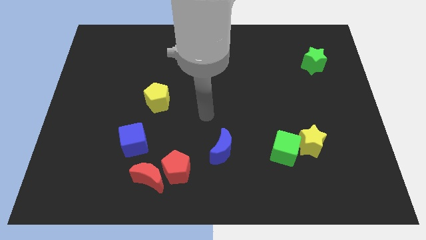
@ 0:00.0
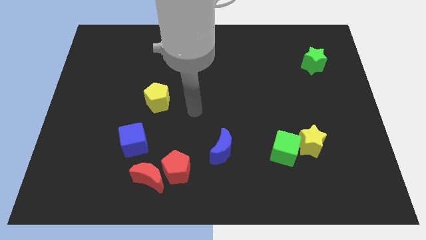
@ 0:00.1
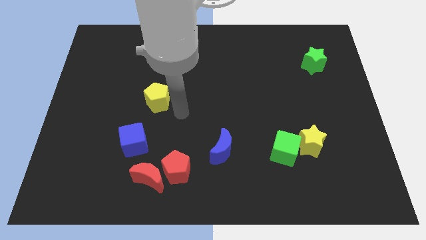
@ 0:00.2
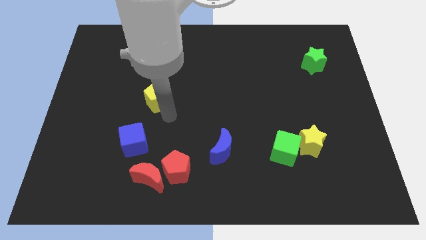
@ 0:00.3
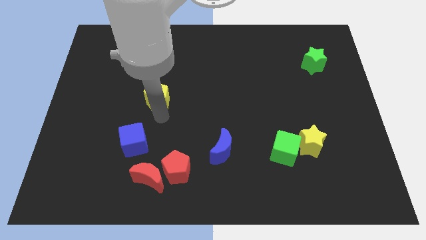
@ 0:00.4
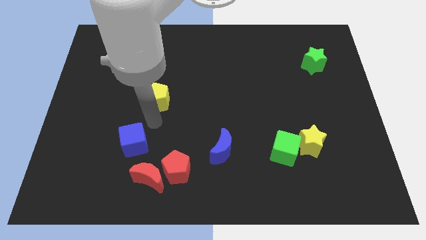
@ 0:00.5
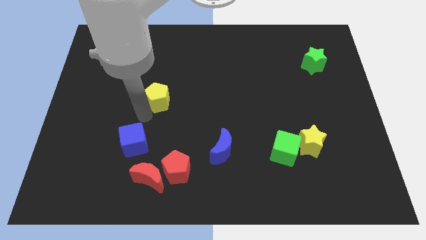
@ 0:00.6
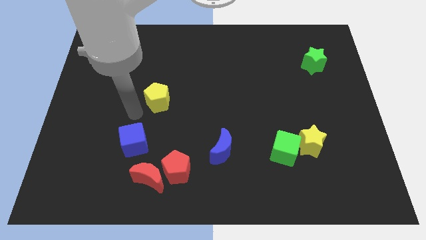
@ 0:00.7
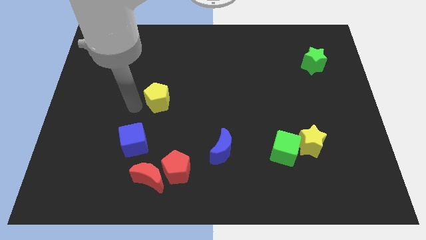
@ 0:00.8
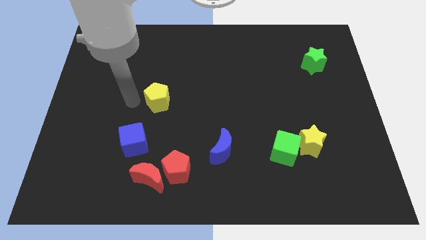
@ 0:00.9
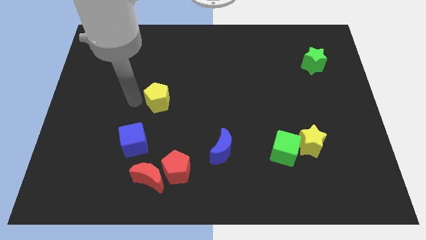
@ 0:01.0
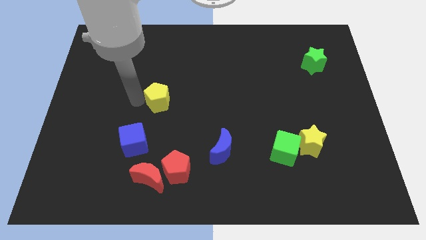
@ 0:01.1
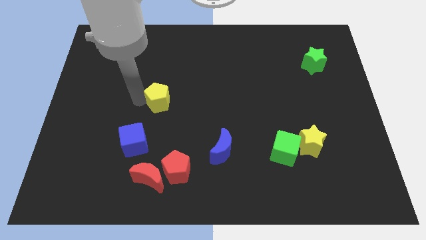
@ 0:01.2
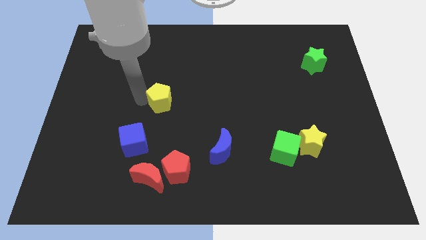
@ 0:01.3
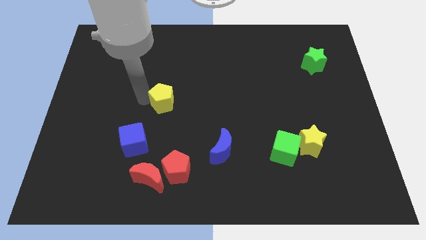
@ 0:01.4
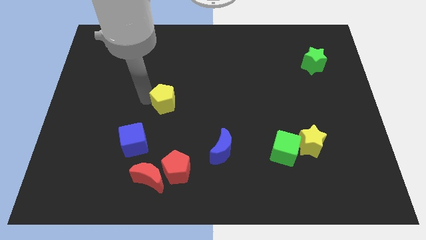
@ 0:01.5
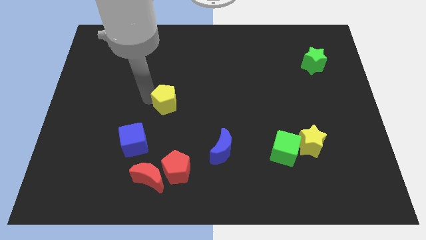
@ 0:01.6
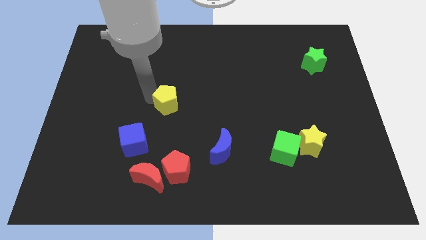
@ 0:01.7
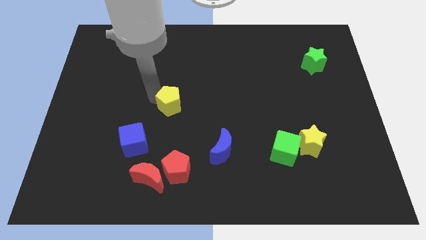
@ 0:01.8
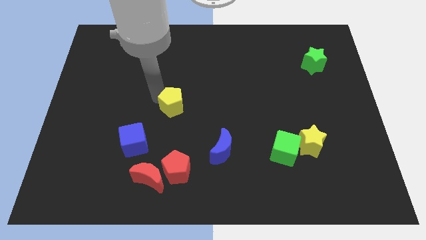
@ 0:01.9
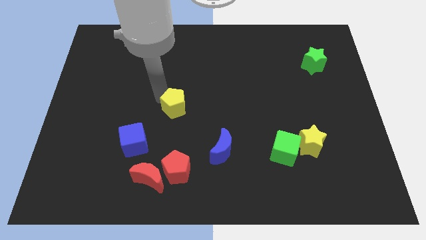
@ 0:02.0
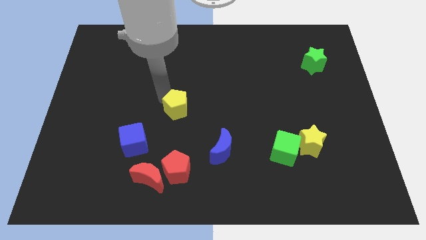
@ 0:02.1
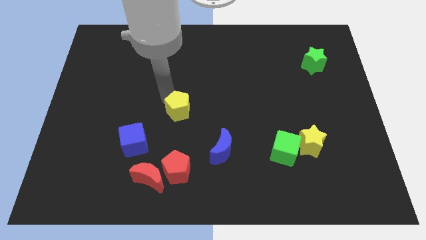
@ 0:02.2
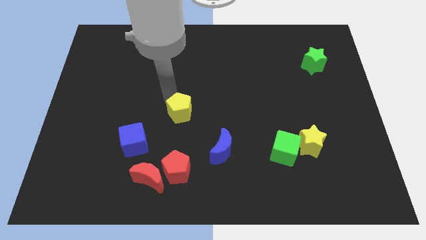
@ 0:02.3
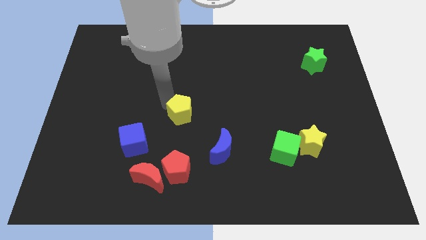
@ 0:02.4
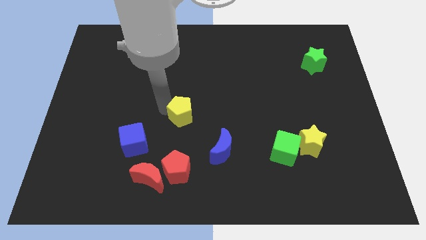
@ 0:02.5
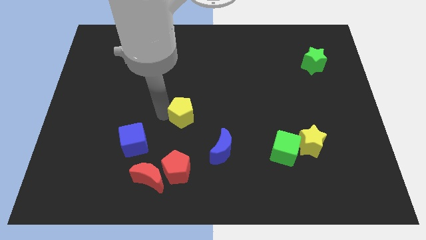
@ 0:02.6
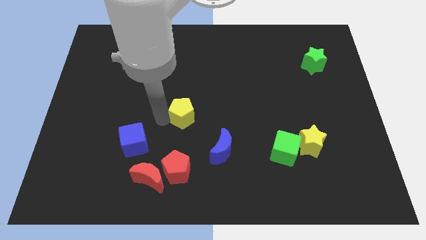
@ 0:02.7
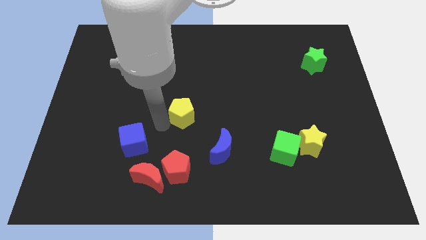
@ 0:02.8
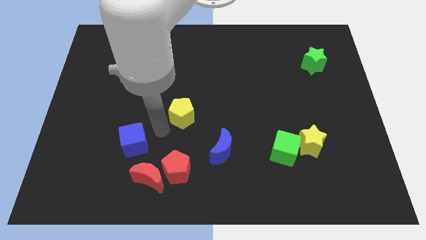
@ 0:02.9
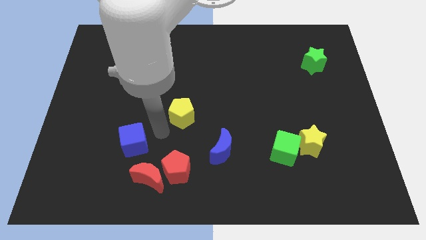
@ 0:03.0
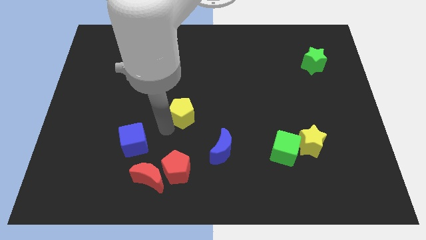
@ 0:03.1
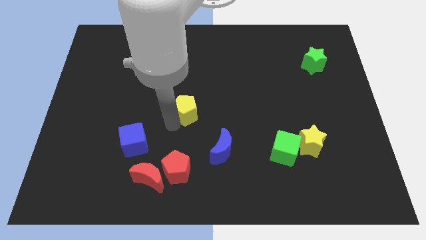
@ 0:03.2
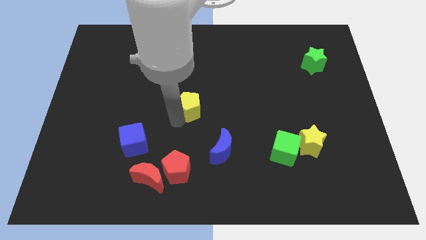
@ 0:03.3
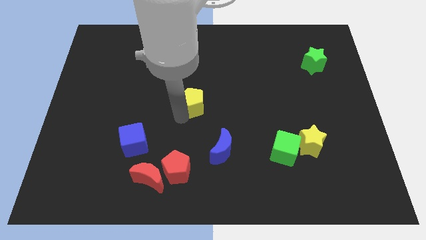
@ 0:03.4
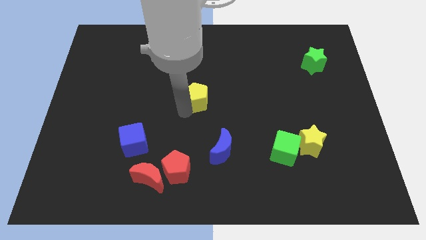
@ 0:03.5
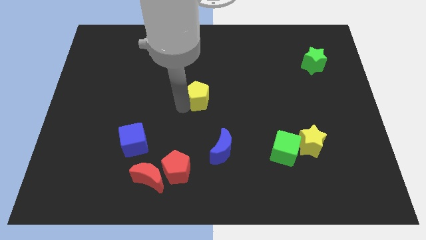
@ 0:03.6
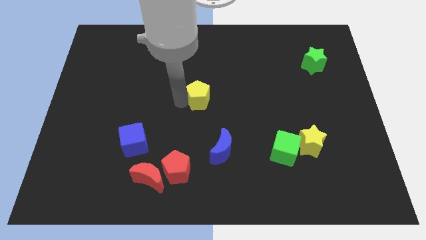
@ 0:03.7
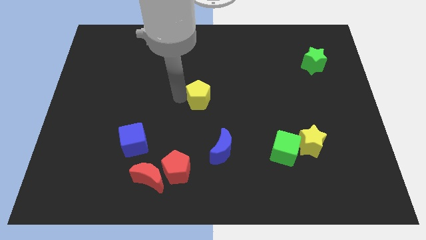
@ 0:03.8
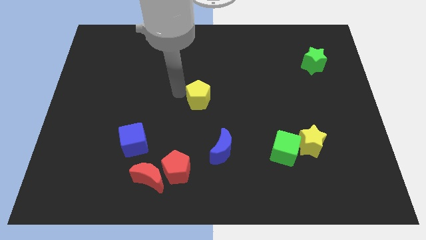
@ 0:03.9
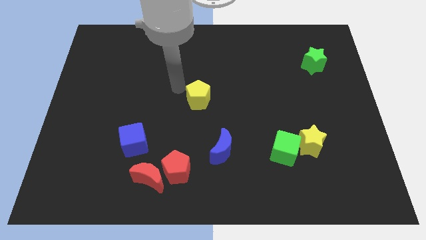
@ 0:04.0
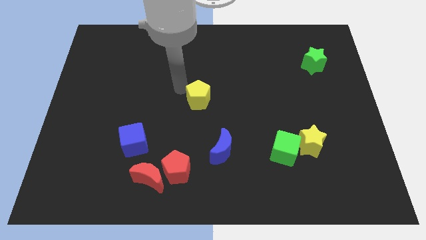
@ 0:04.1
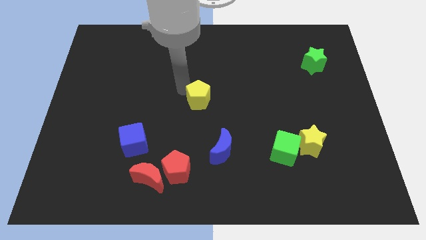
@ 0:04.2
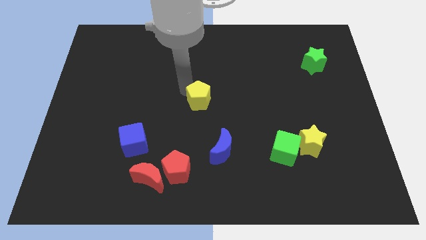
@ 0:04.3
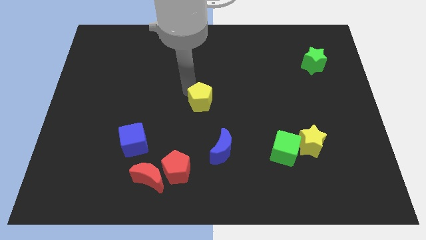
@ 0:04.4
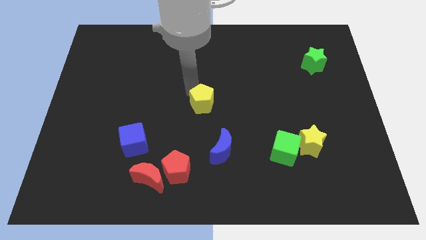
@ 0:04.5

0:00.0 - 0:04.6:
put the yellow pentagon to the top side of the blue moon

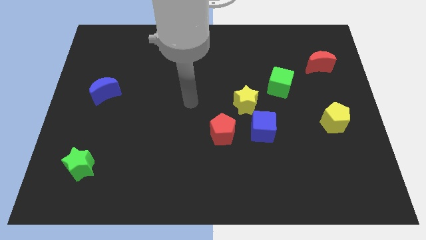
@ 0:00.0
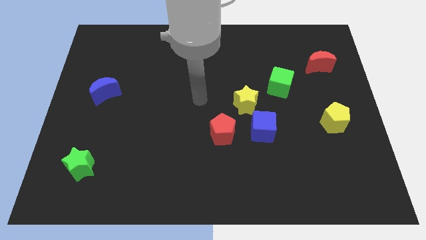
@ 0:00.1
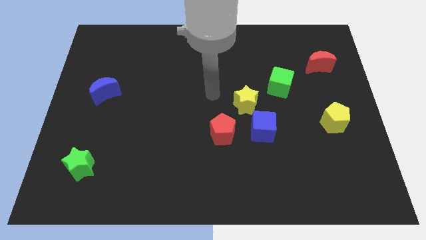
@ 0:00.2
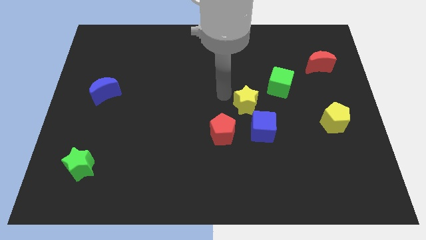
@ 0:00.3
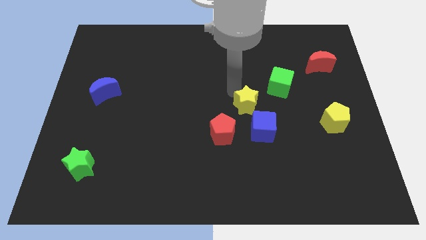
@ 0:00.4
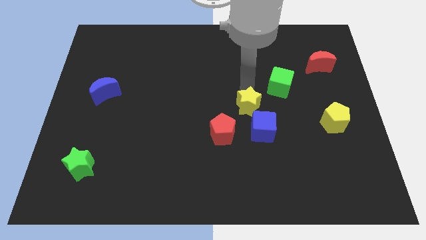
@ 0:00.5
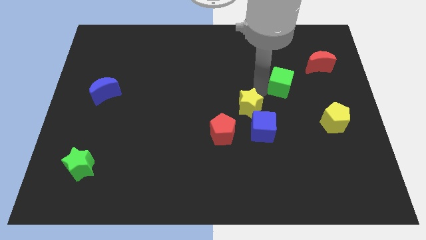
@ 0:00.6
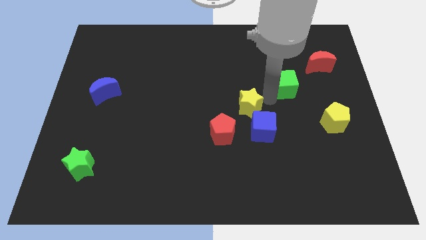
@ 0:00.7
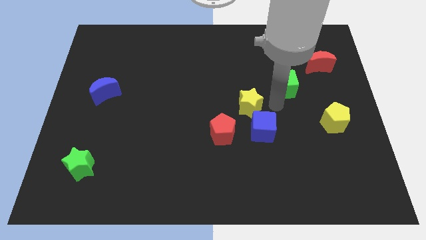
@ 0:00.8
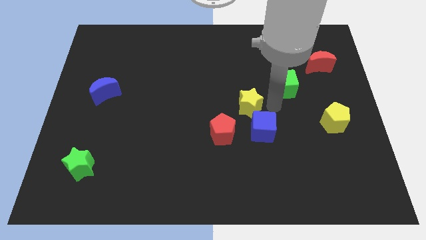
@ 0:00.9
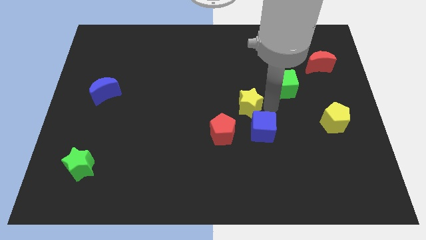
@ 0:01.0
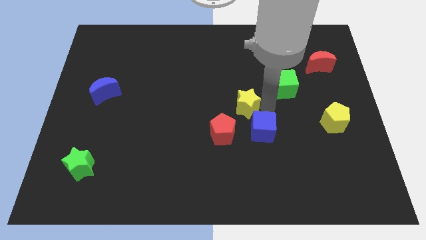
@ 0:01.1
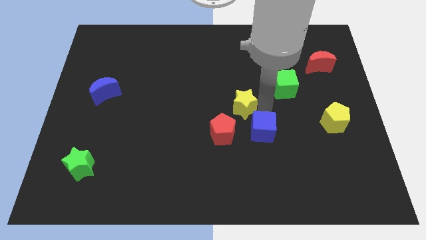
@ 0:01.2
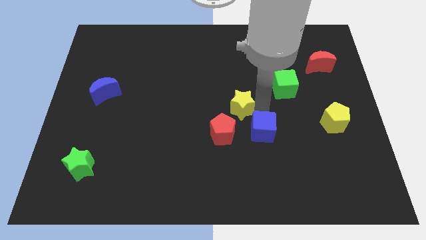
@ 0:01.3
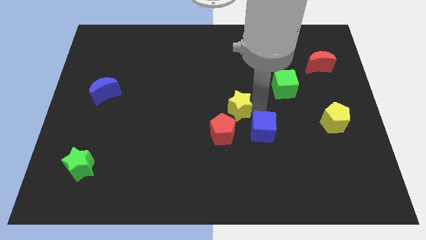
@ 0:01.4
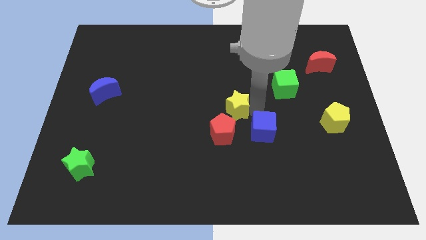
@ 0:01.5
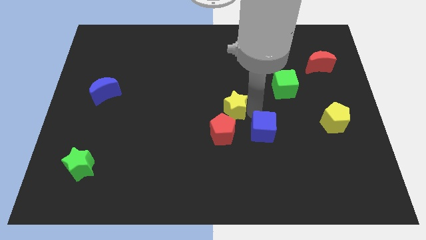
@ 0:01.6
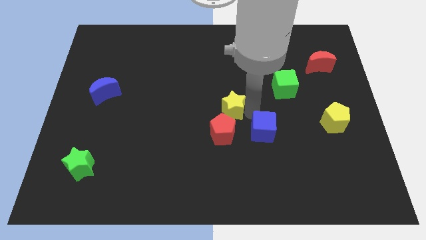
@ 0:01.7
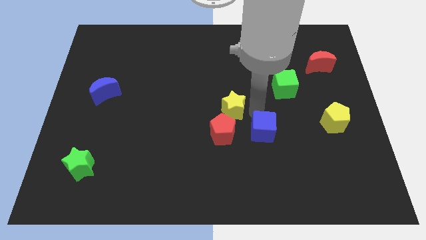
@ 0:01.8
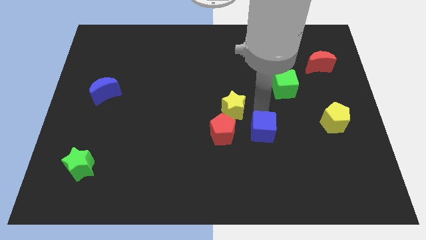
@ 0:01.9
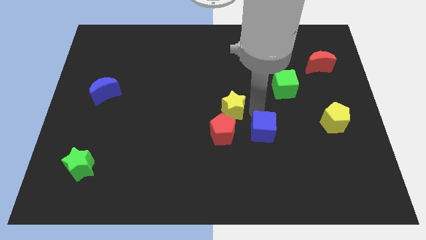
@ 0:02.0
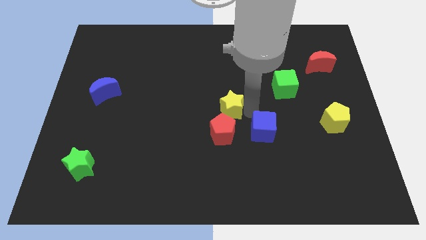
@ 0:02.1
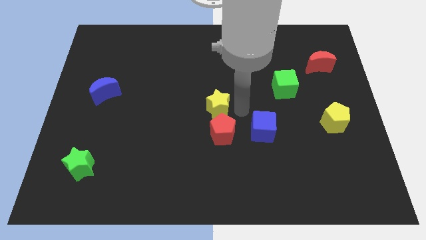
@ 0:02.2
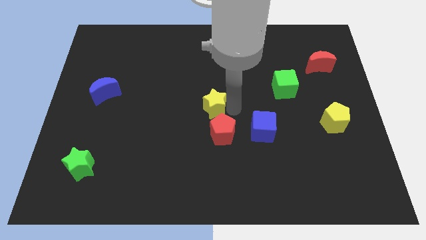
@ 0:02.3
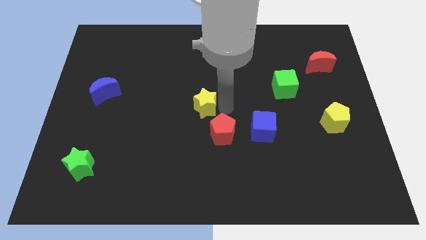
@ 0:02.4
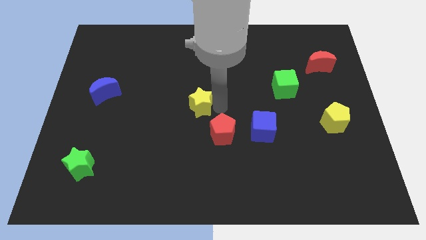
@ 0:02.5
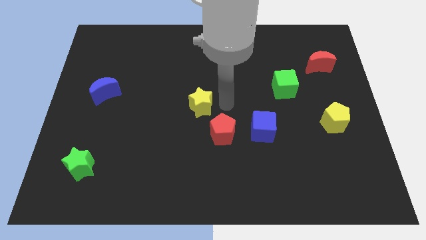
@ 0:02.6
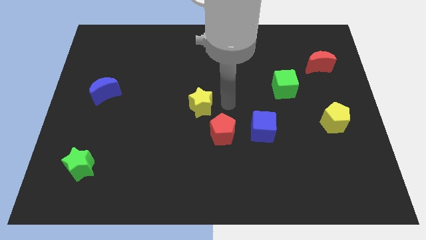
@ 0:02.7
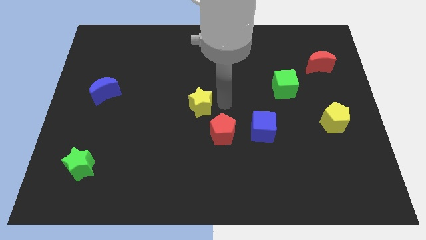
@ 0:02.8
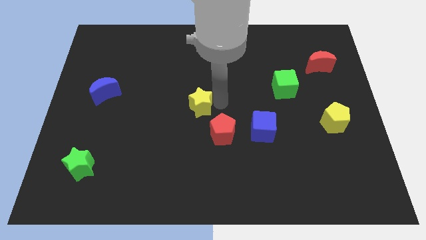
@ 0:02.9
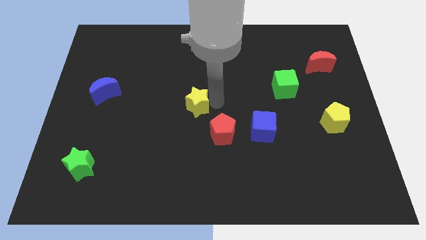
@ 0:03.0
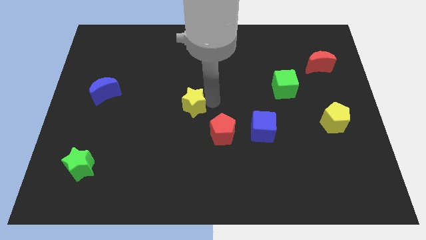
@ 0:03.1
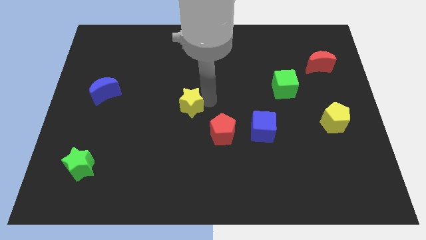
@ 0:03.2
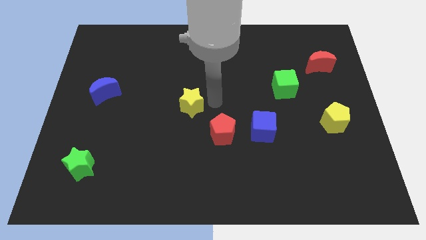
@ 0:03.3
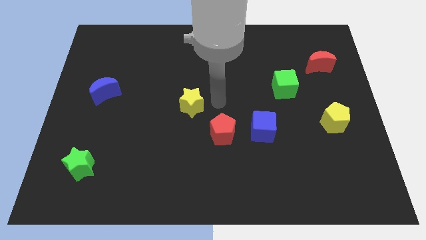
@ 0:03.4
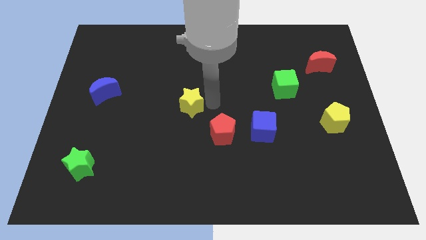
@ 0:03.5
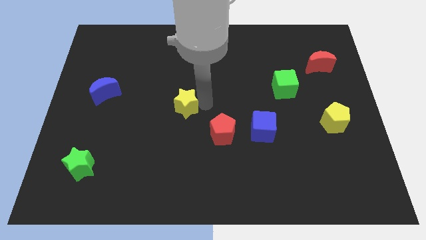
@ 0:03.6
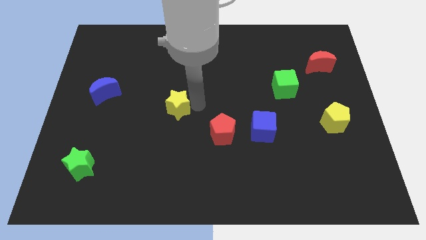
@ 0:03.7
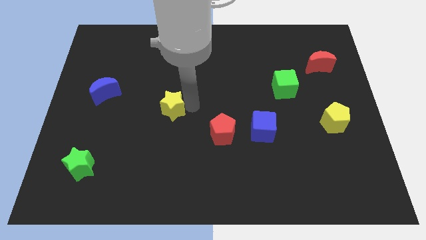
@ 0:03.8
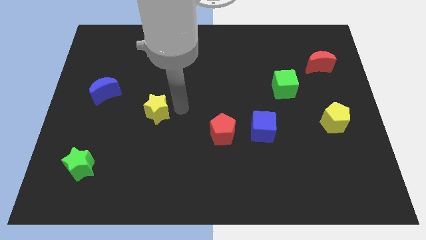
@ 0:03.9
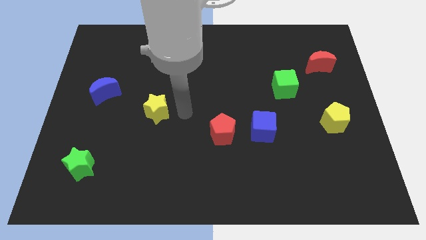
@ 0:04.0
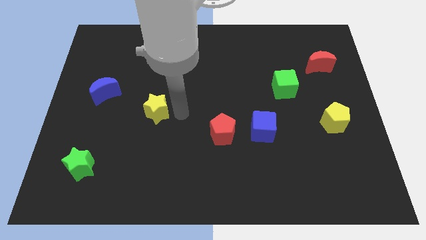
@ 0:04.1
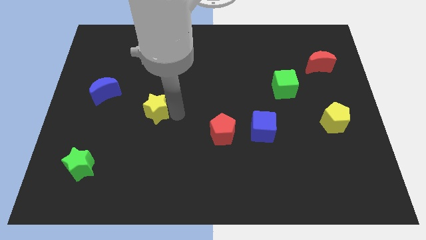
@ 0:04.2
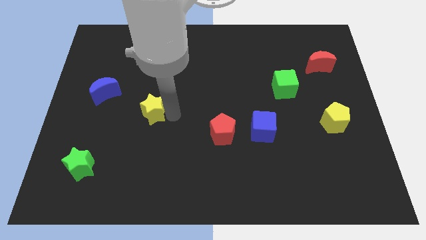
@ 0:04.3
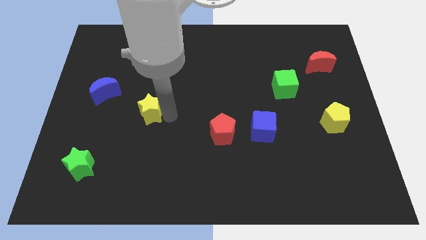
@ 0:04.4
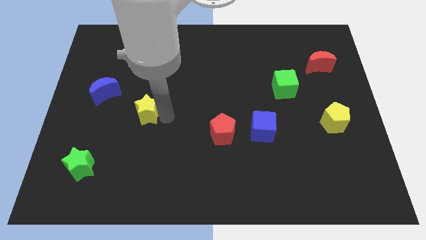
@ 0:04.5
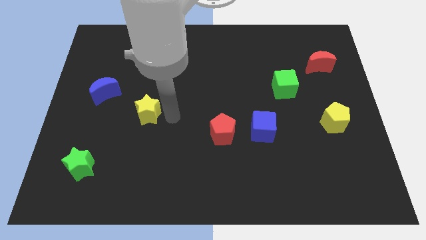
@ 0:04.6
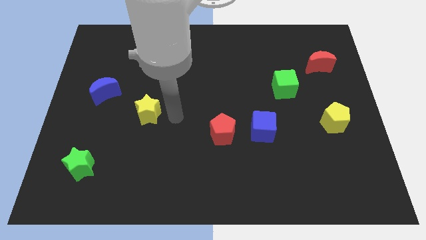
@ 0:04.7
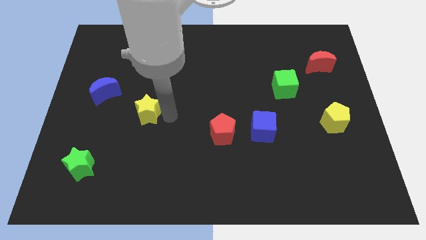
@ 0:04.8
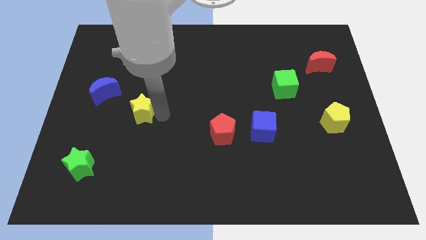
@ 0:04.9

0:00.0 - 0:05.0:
push the yellow star to the bottom right of the blue moon
